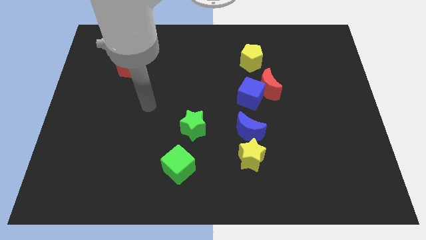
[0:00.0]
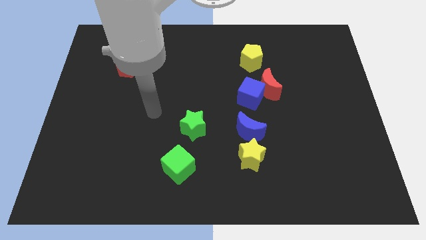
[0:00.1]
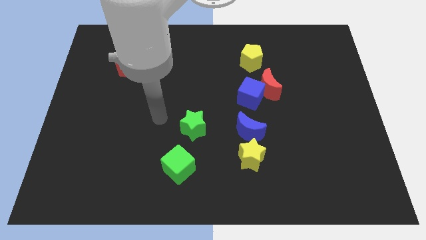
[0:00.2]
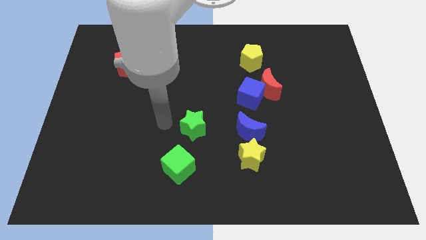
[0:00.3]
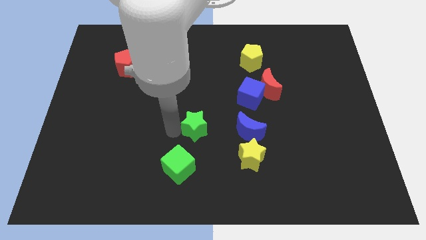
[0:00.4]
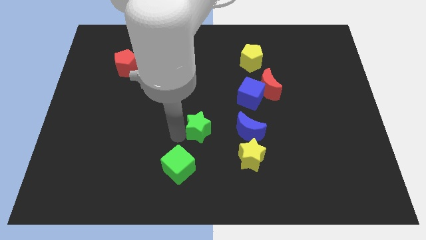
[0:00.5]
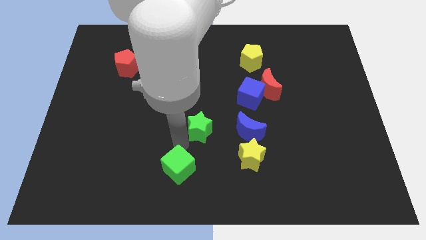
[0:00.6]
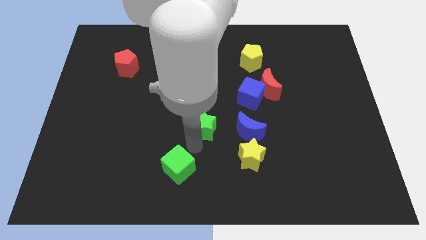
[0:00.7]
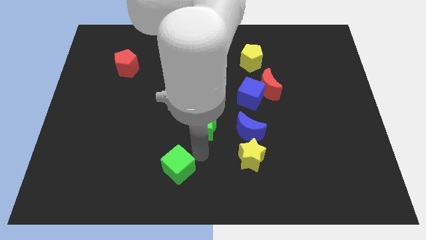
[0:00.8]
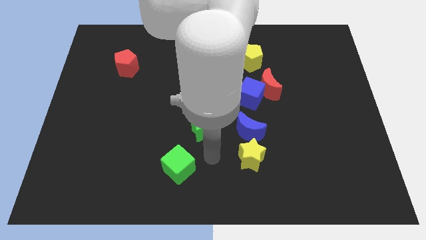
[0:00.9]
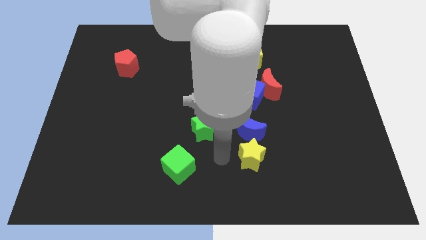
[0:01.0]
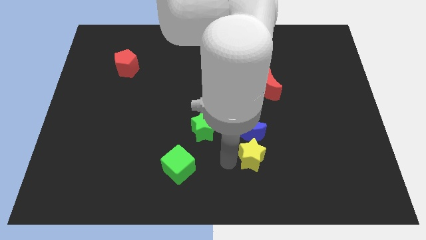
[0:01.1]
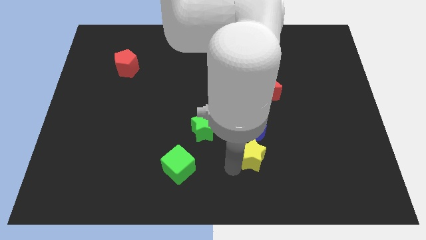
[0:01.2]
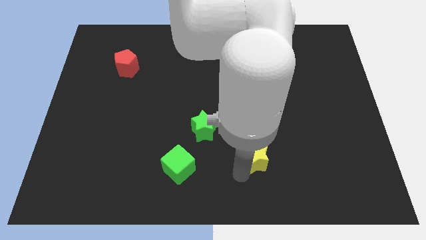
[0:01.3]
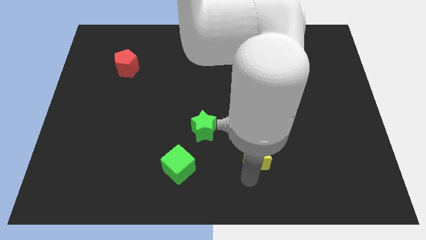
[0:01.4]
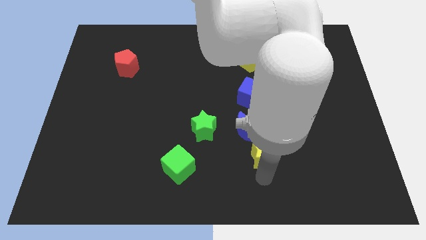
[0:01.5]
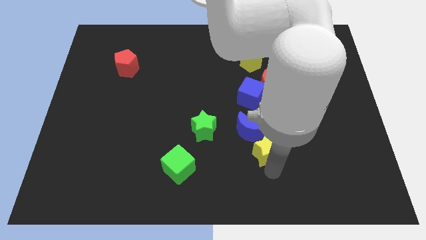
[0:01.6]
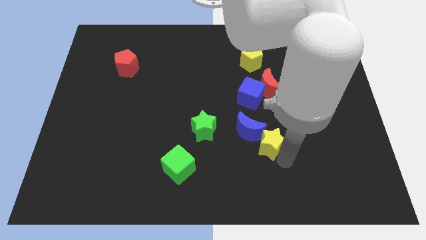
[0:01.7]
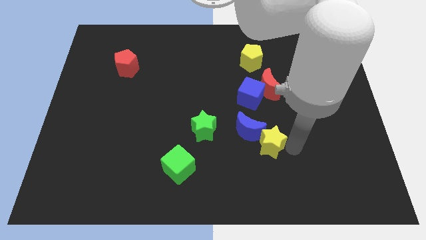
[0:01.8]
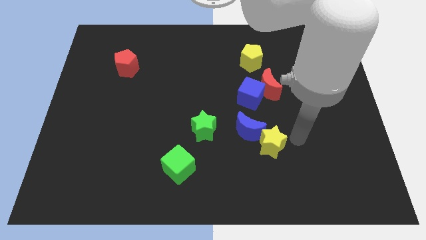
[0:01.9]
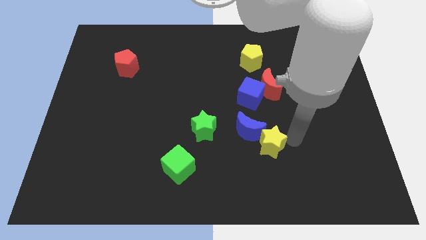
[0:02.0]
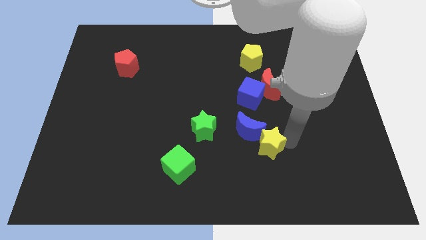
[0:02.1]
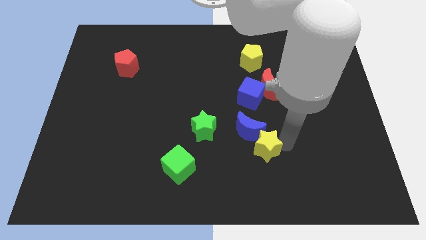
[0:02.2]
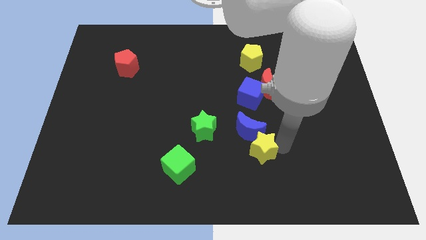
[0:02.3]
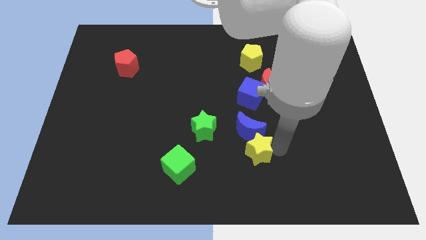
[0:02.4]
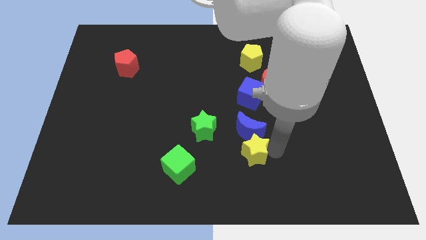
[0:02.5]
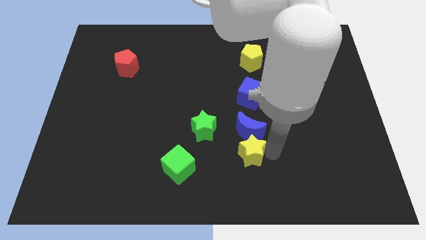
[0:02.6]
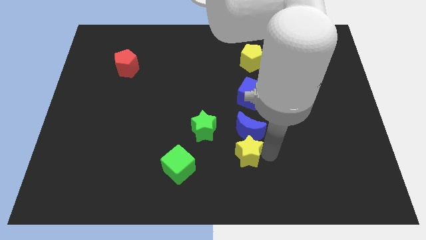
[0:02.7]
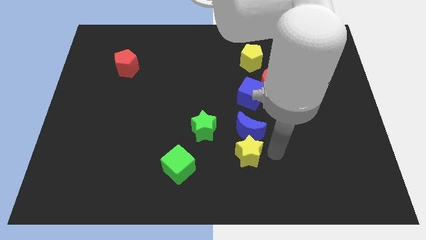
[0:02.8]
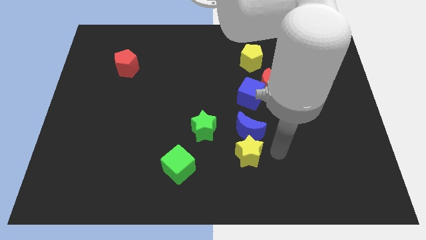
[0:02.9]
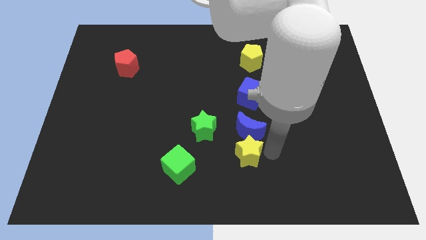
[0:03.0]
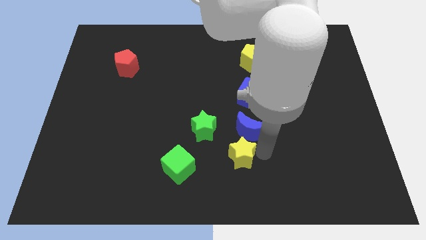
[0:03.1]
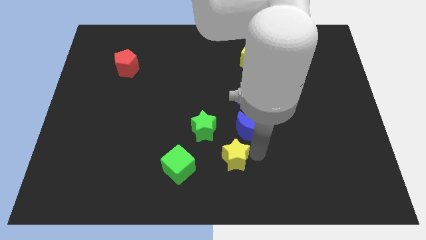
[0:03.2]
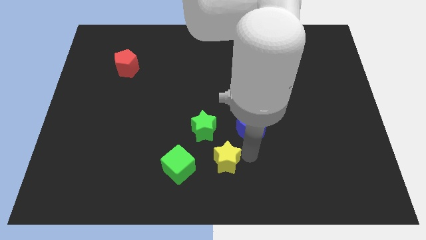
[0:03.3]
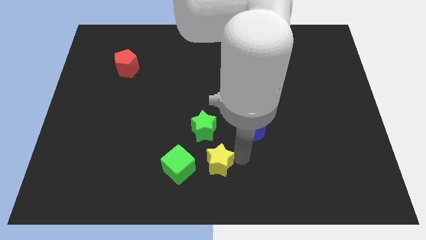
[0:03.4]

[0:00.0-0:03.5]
slightly slide the yellow star left

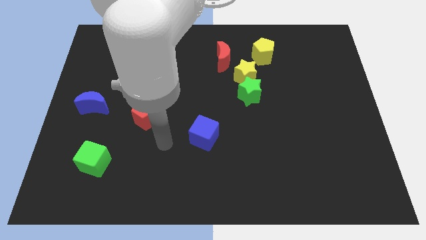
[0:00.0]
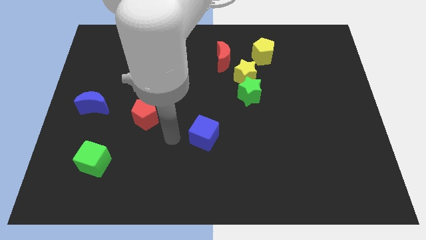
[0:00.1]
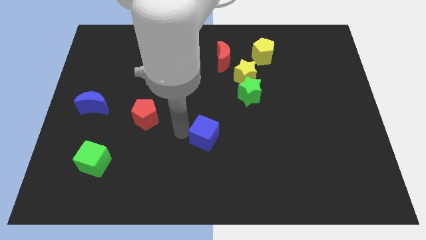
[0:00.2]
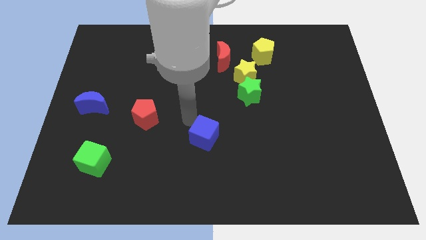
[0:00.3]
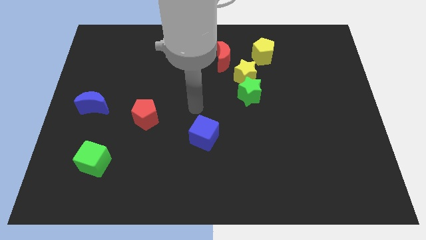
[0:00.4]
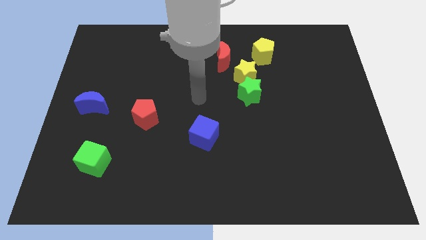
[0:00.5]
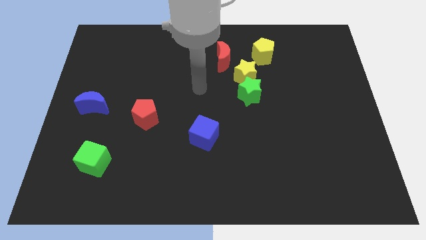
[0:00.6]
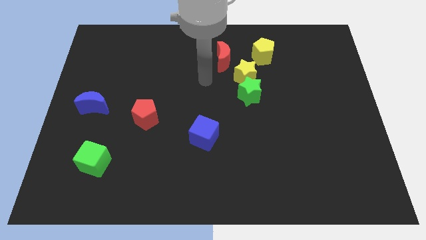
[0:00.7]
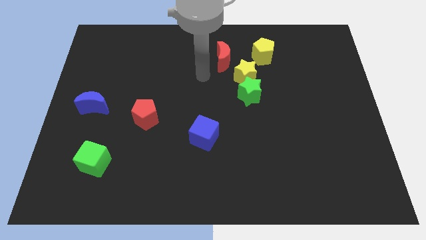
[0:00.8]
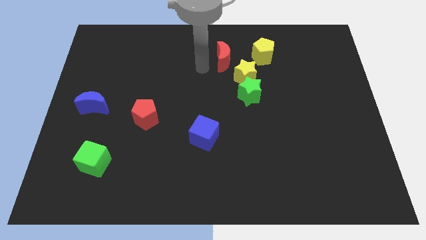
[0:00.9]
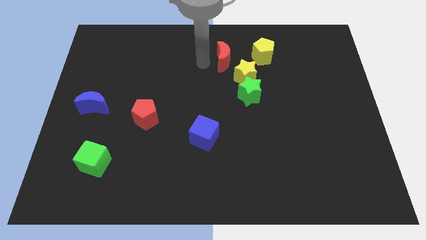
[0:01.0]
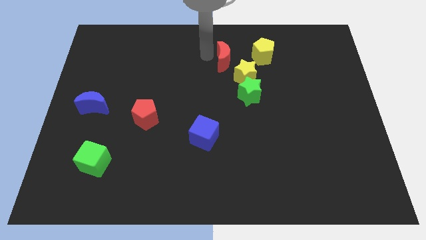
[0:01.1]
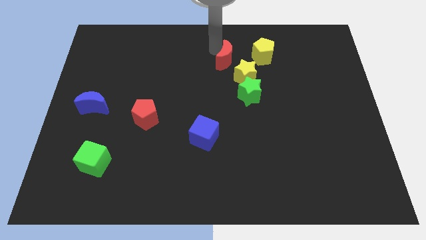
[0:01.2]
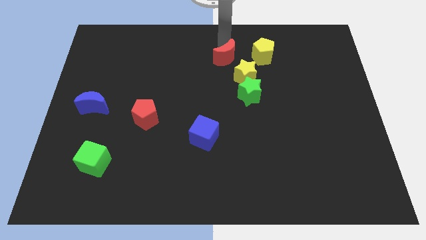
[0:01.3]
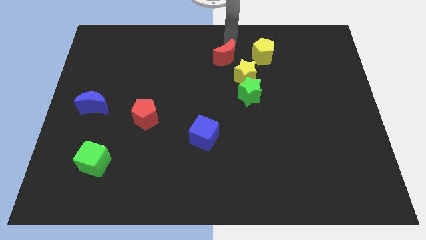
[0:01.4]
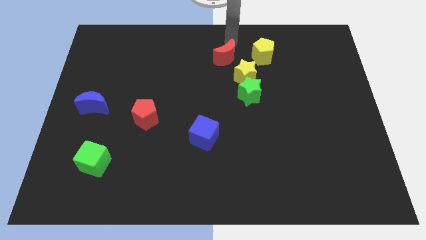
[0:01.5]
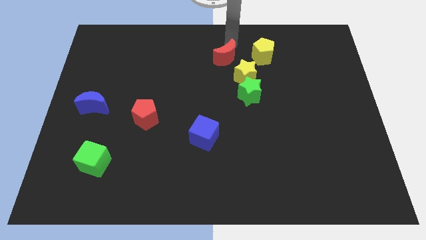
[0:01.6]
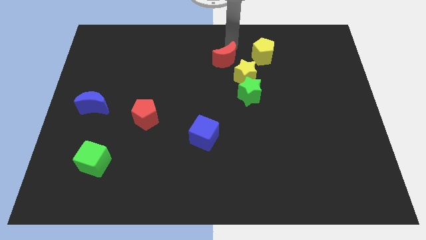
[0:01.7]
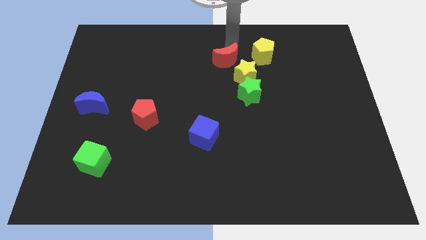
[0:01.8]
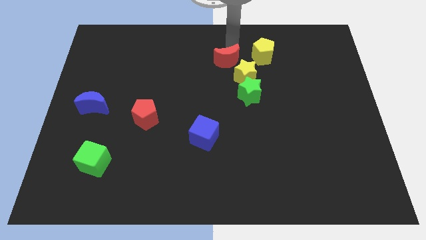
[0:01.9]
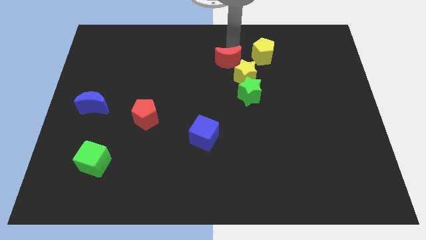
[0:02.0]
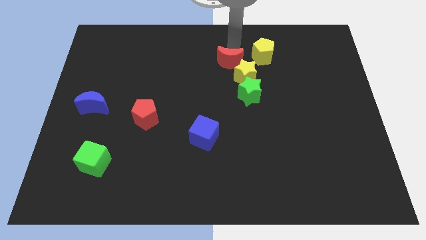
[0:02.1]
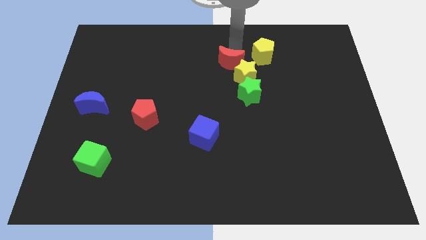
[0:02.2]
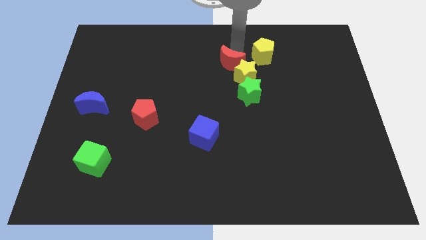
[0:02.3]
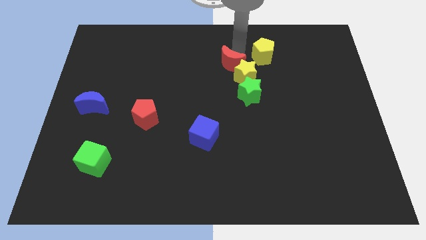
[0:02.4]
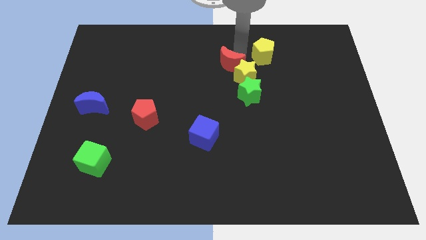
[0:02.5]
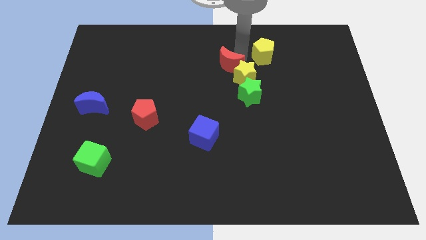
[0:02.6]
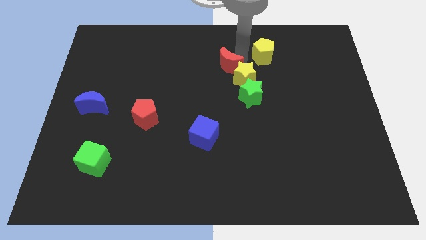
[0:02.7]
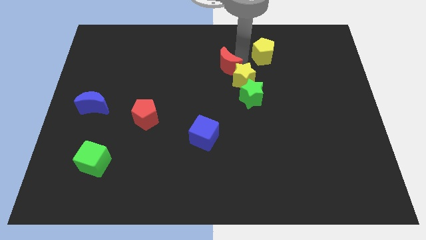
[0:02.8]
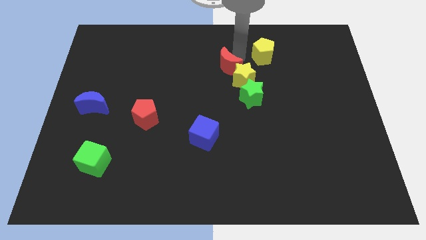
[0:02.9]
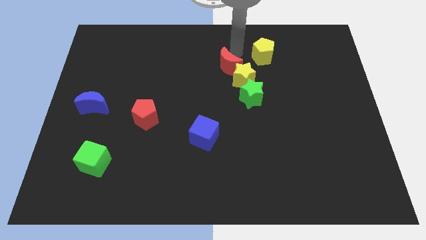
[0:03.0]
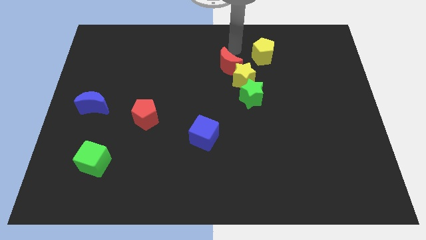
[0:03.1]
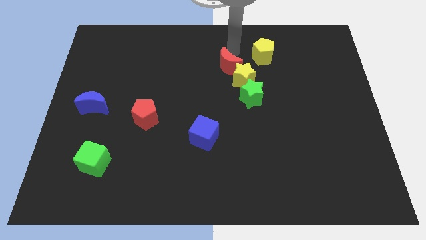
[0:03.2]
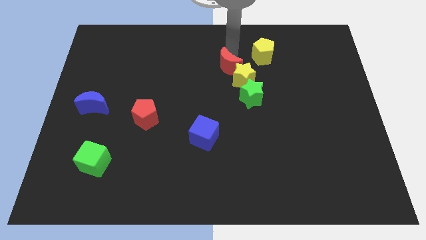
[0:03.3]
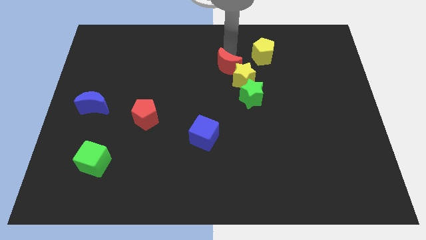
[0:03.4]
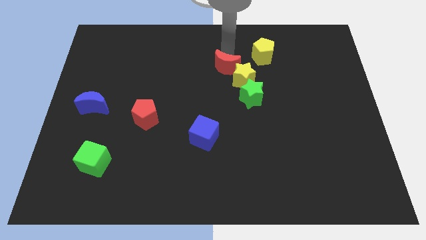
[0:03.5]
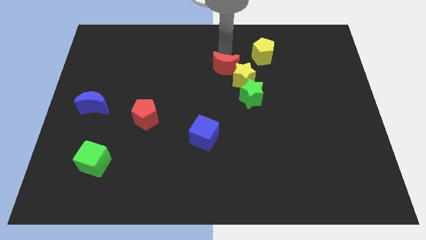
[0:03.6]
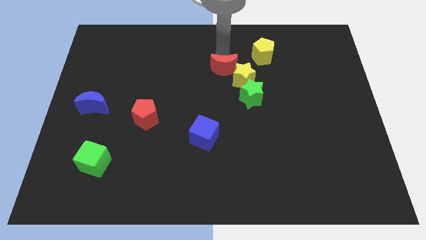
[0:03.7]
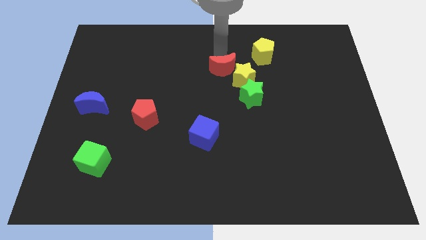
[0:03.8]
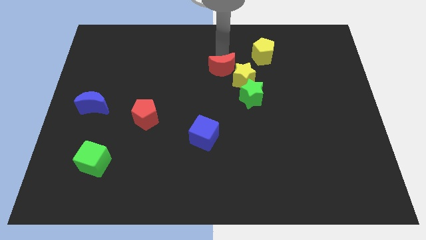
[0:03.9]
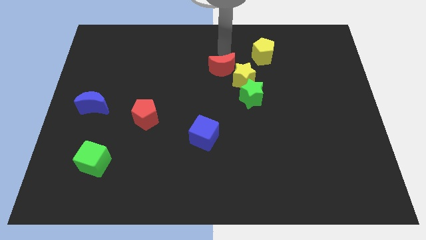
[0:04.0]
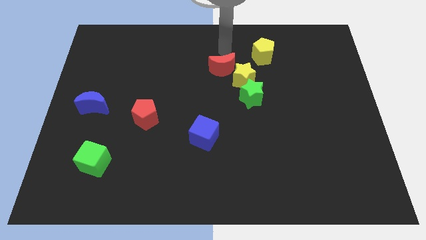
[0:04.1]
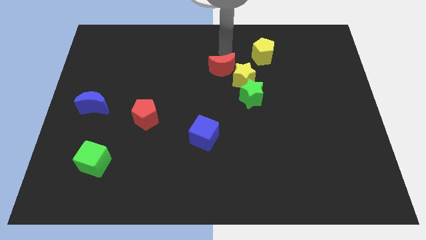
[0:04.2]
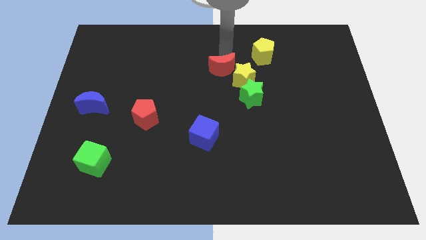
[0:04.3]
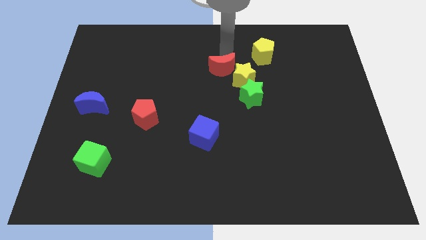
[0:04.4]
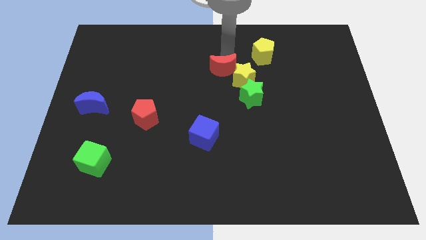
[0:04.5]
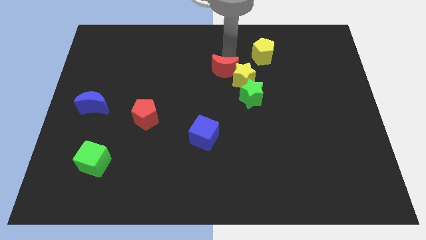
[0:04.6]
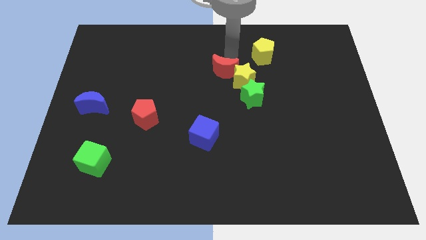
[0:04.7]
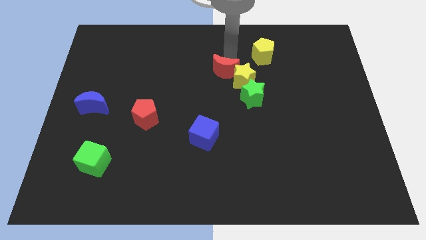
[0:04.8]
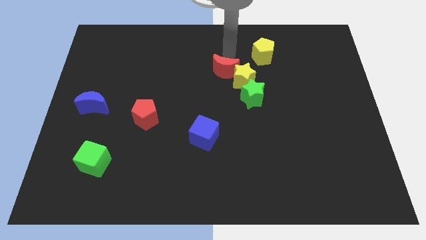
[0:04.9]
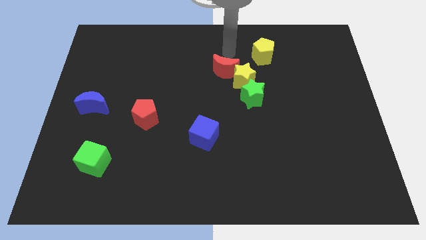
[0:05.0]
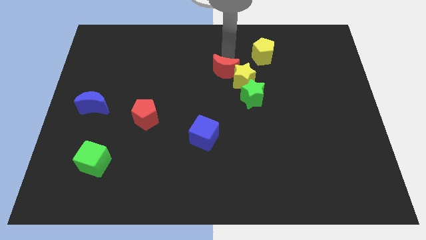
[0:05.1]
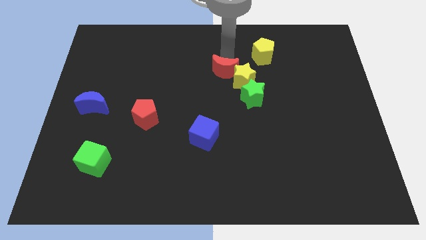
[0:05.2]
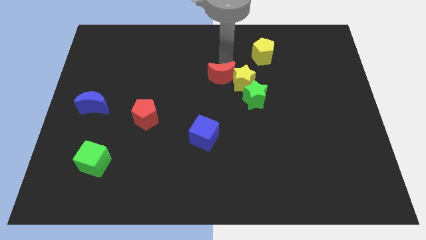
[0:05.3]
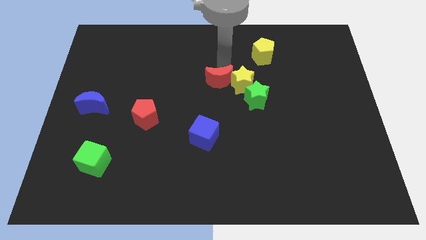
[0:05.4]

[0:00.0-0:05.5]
slightly push the red moon down
